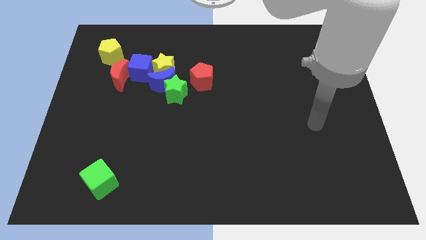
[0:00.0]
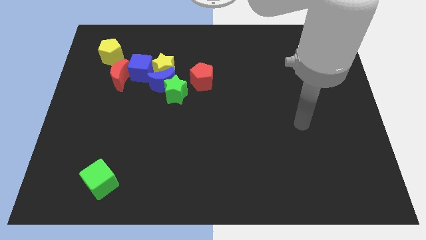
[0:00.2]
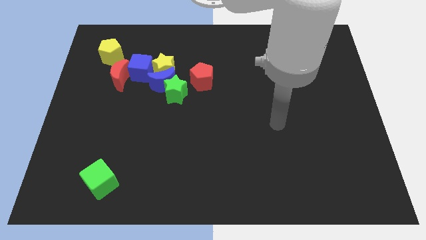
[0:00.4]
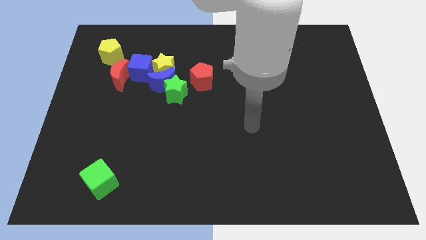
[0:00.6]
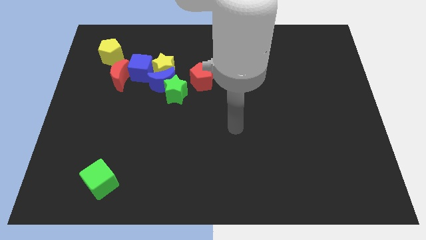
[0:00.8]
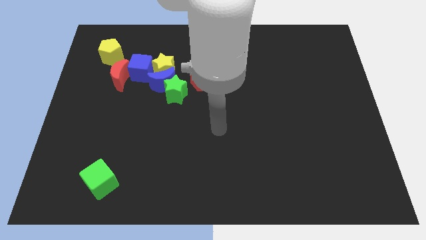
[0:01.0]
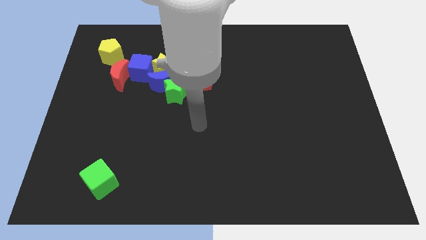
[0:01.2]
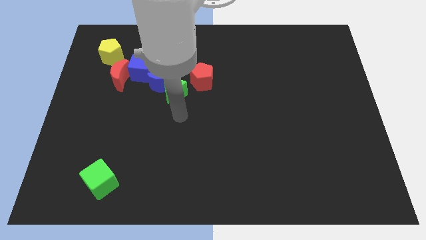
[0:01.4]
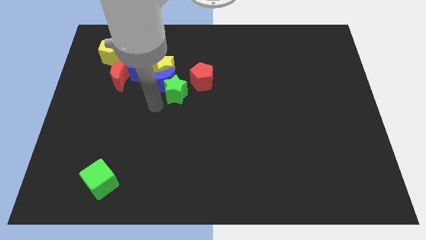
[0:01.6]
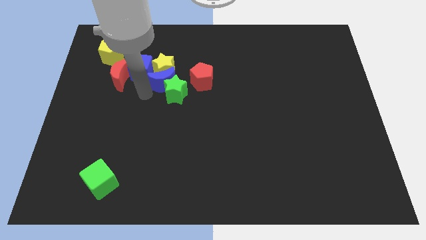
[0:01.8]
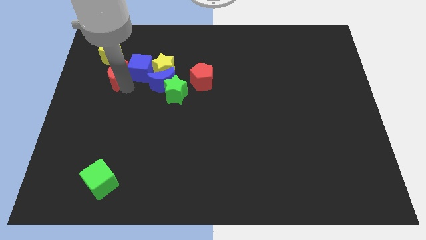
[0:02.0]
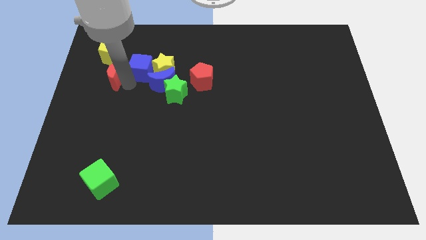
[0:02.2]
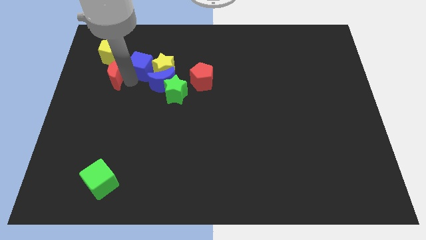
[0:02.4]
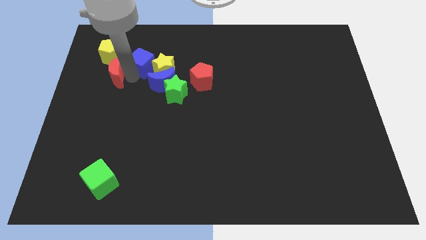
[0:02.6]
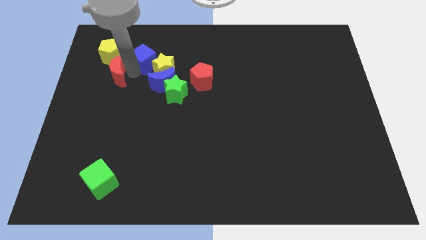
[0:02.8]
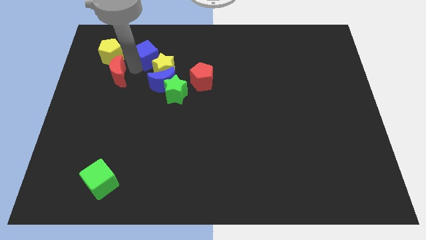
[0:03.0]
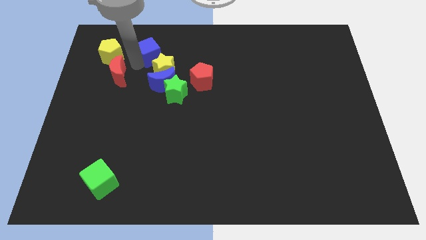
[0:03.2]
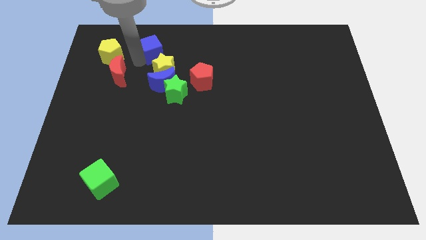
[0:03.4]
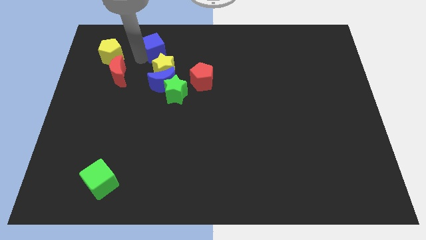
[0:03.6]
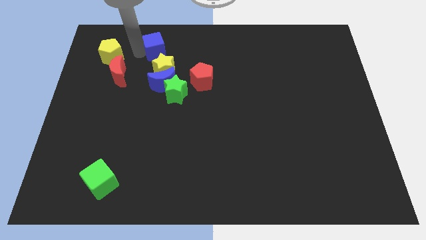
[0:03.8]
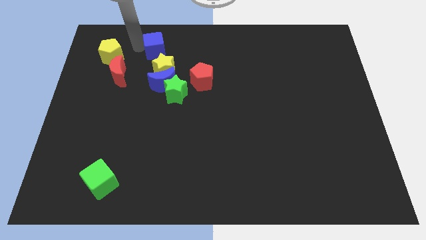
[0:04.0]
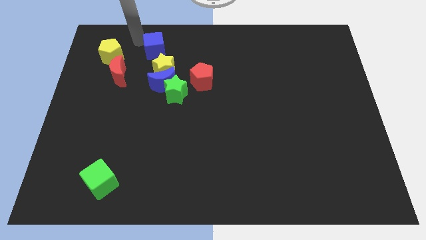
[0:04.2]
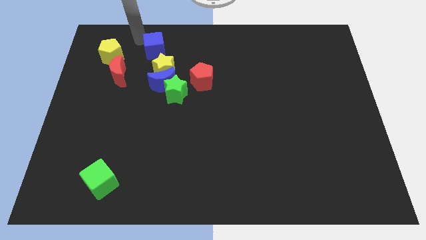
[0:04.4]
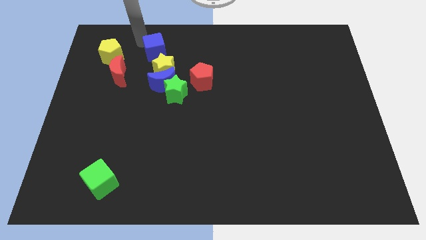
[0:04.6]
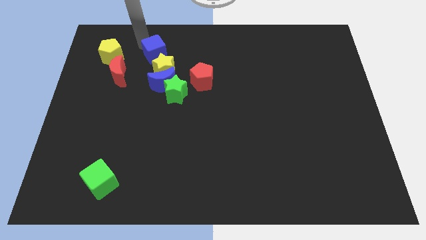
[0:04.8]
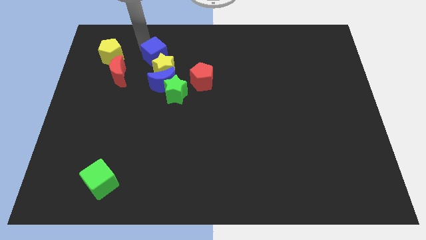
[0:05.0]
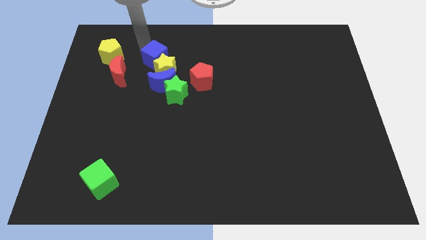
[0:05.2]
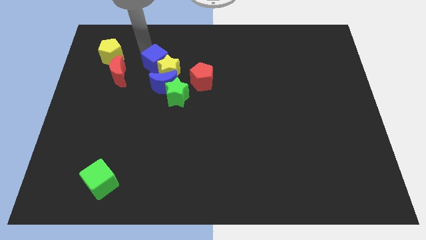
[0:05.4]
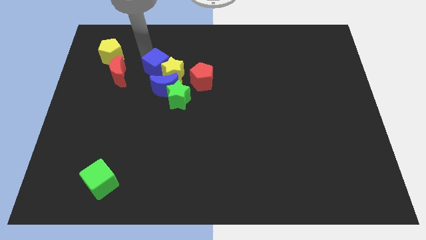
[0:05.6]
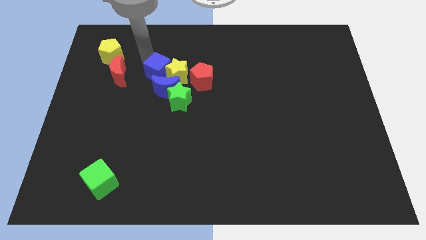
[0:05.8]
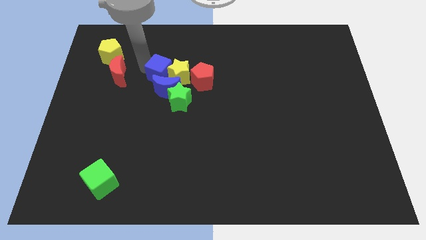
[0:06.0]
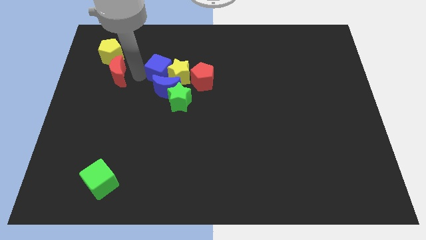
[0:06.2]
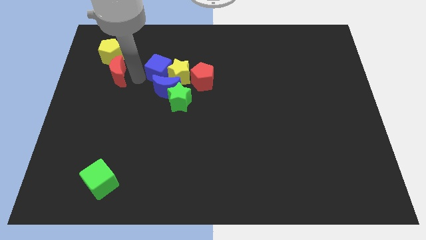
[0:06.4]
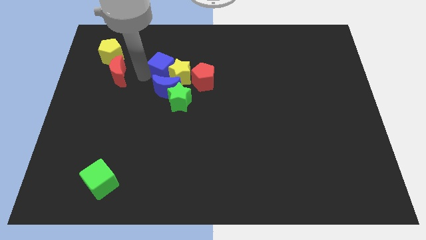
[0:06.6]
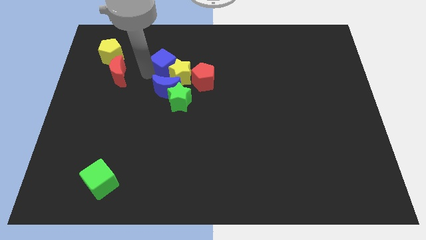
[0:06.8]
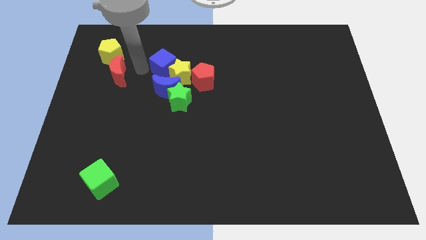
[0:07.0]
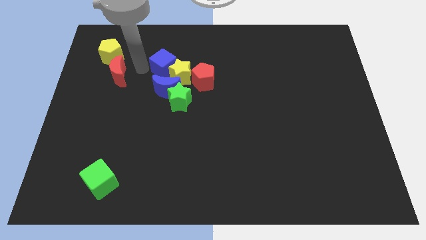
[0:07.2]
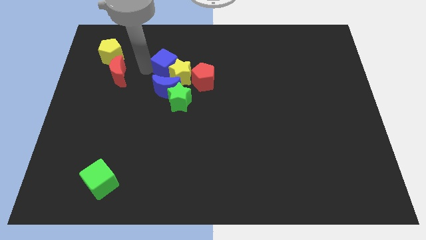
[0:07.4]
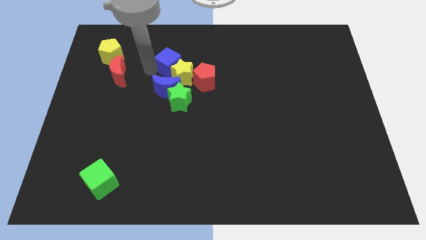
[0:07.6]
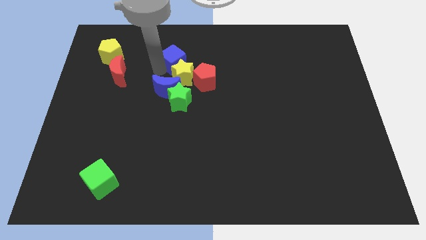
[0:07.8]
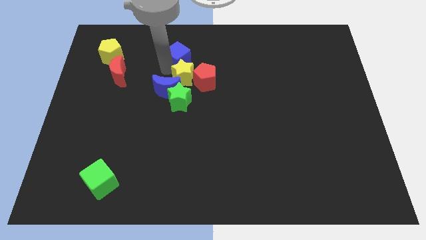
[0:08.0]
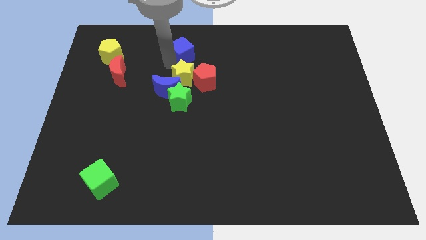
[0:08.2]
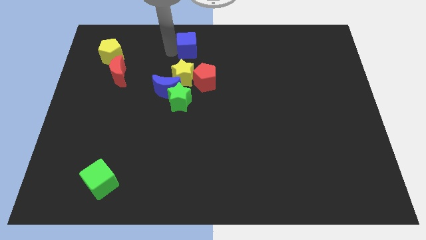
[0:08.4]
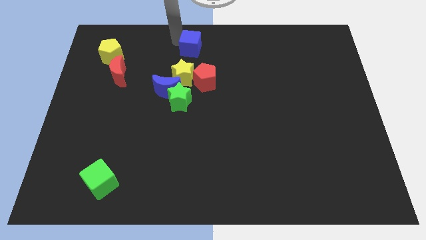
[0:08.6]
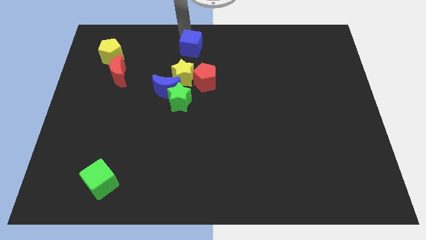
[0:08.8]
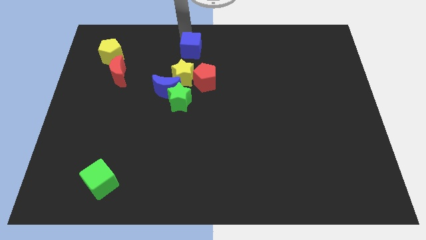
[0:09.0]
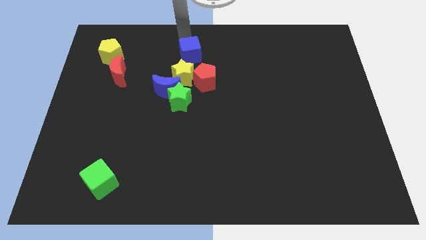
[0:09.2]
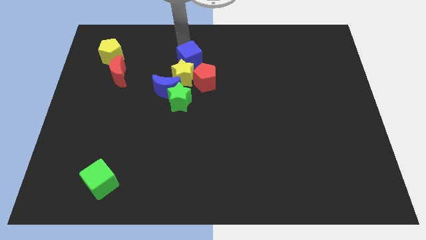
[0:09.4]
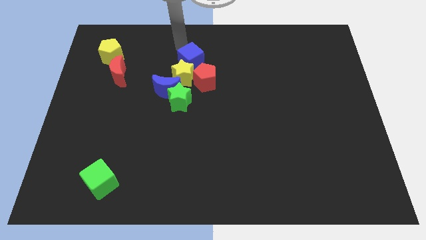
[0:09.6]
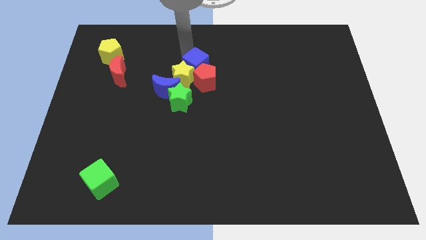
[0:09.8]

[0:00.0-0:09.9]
push the blue cube close to the red pentagon
